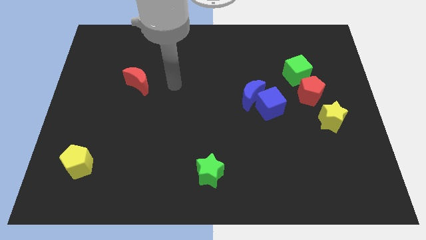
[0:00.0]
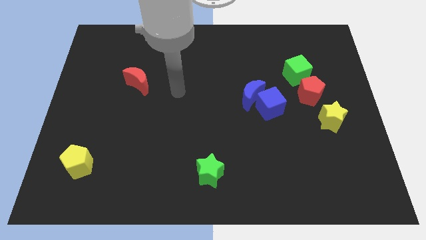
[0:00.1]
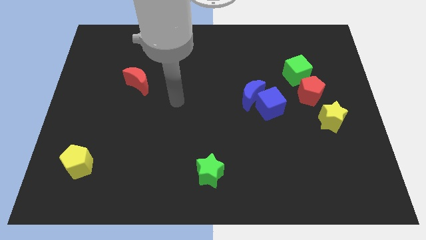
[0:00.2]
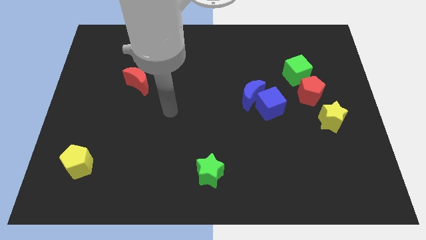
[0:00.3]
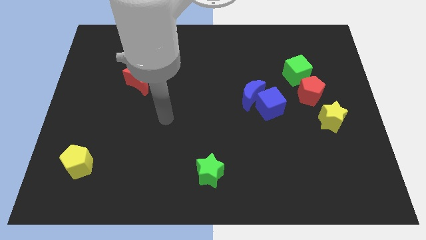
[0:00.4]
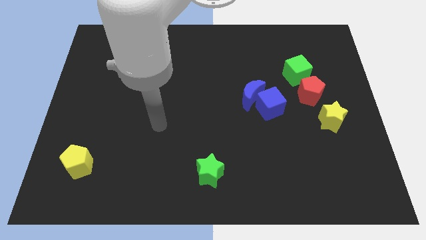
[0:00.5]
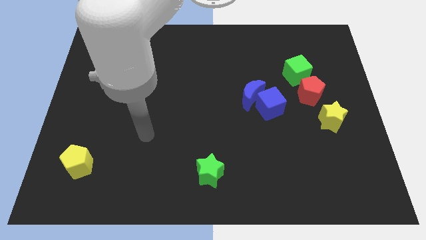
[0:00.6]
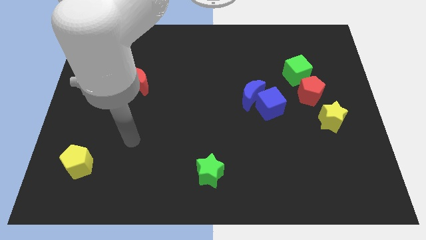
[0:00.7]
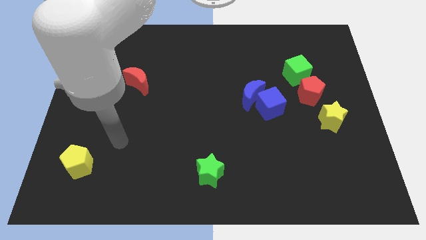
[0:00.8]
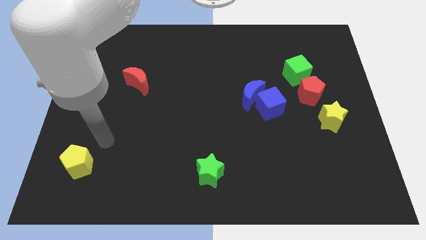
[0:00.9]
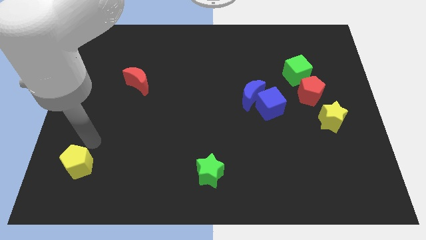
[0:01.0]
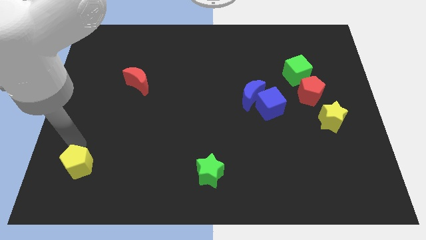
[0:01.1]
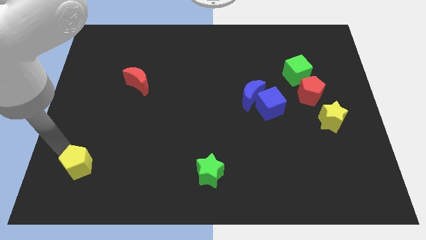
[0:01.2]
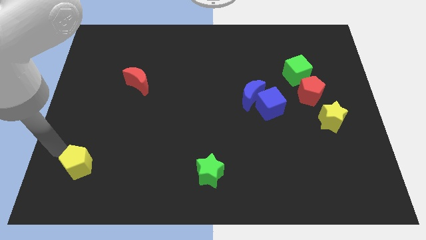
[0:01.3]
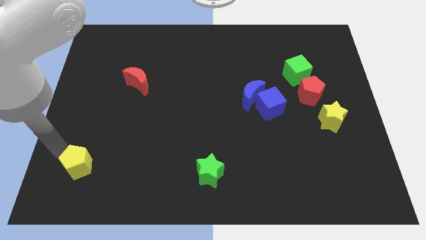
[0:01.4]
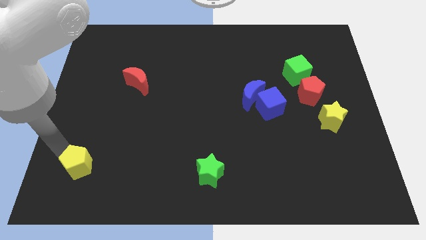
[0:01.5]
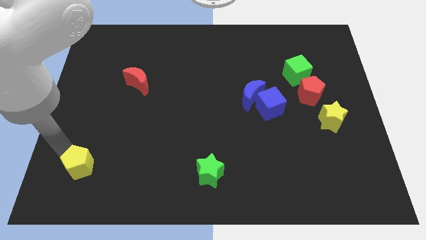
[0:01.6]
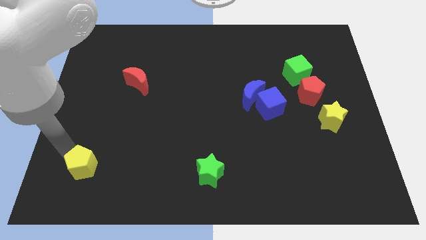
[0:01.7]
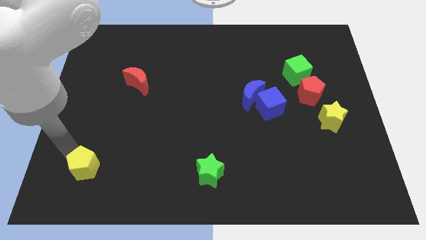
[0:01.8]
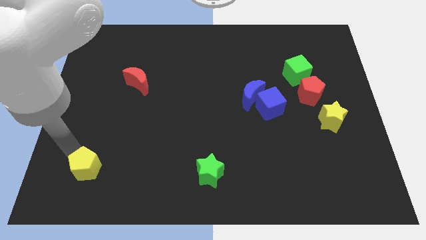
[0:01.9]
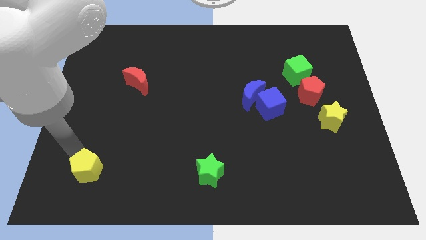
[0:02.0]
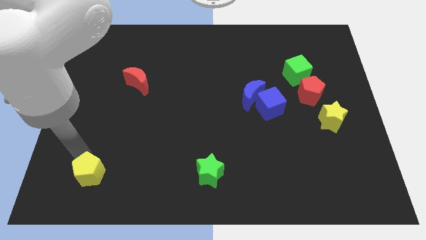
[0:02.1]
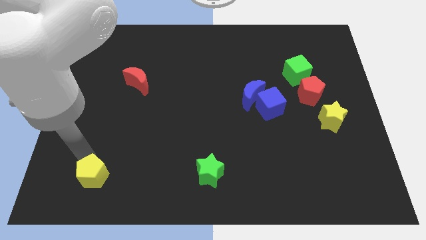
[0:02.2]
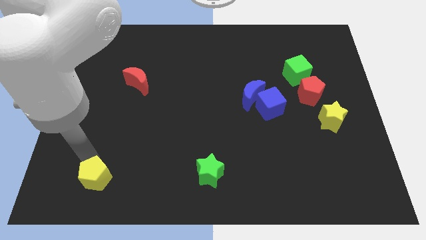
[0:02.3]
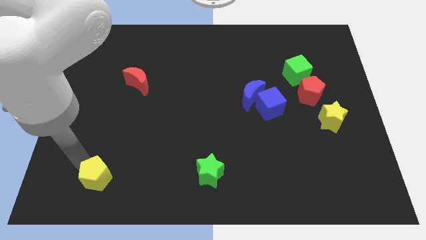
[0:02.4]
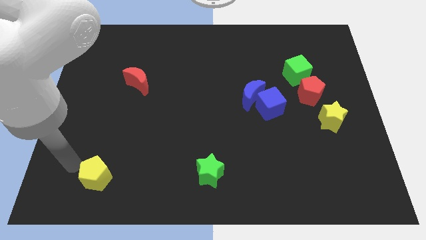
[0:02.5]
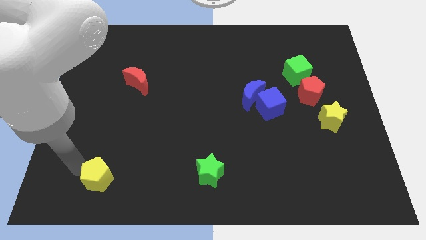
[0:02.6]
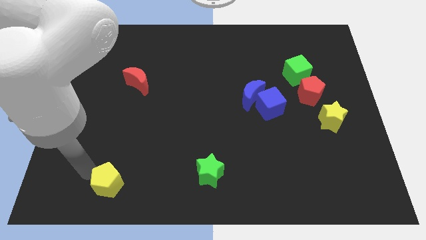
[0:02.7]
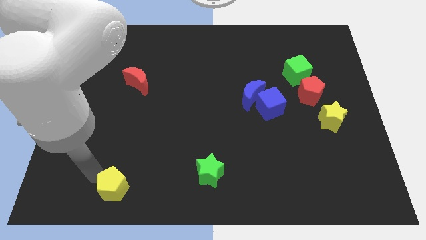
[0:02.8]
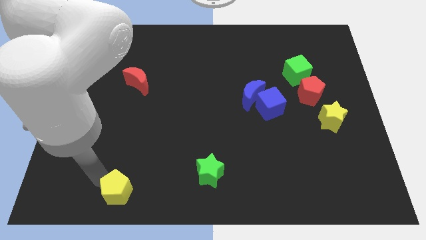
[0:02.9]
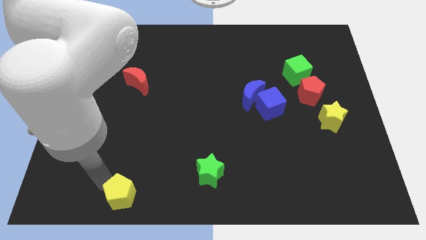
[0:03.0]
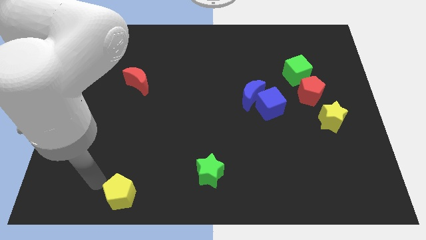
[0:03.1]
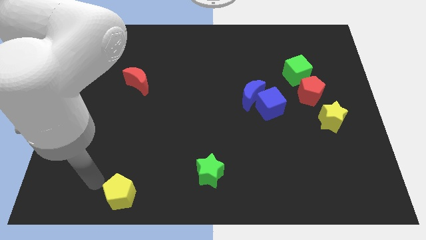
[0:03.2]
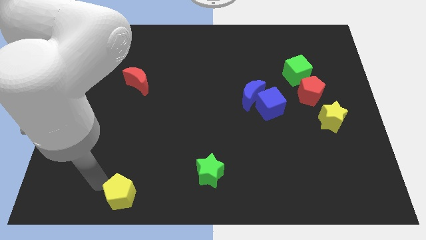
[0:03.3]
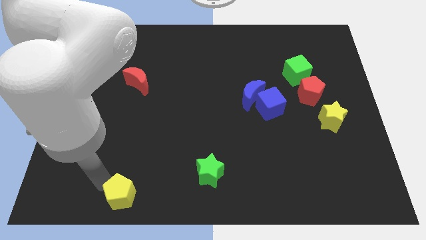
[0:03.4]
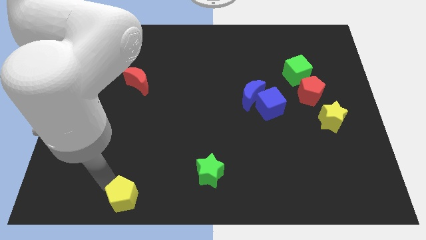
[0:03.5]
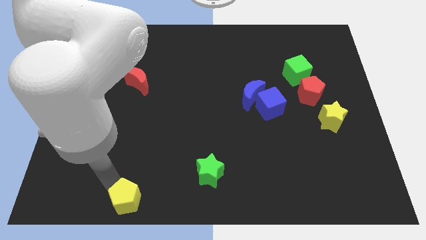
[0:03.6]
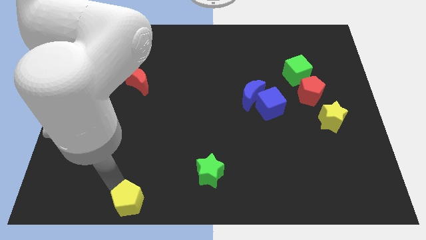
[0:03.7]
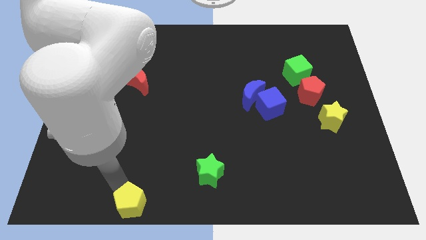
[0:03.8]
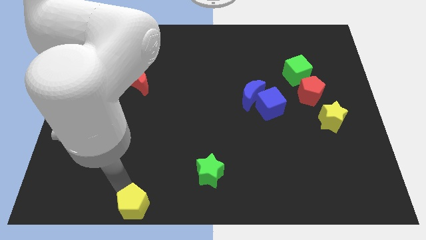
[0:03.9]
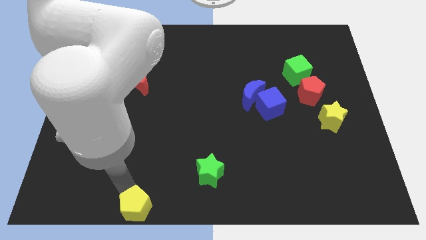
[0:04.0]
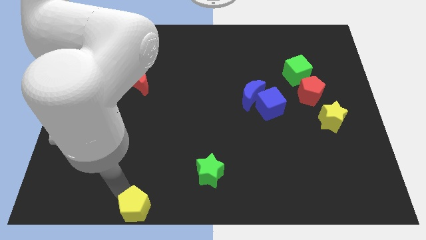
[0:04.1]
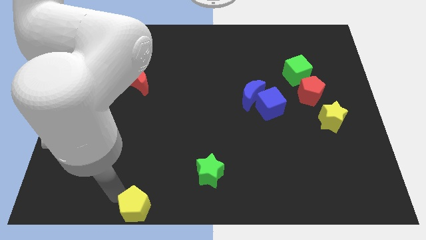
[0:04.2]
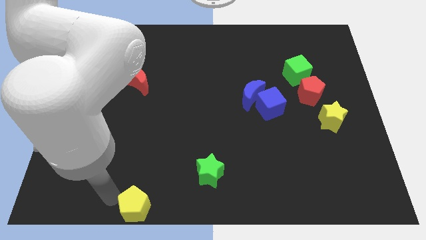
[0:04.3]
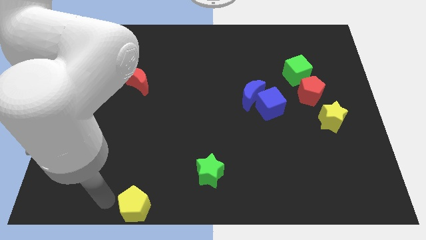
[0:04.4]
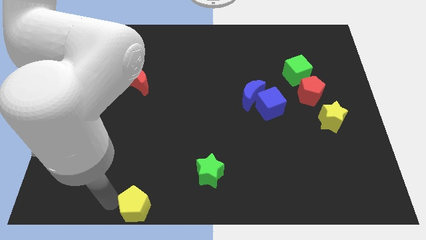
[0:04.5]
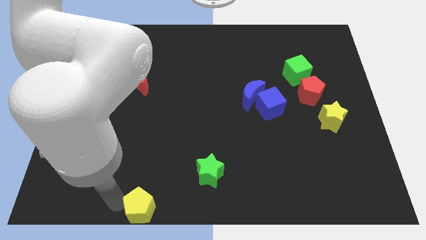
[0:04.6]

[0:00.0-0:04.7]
push the yellow pentagon to the bottom side

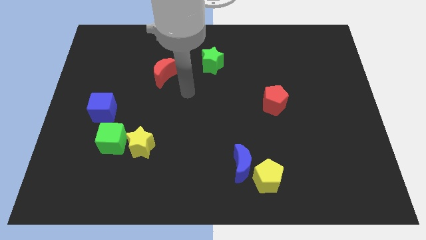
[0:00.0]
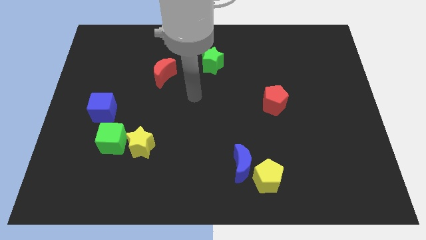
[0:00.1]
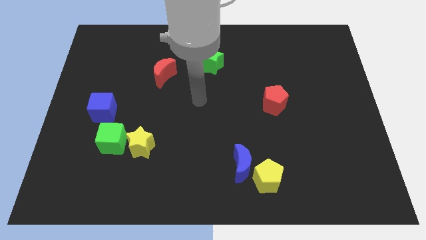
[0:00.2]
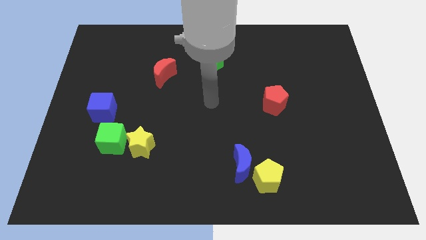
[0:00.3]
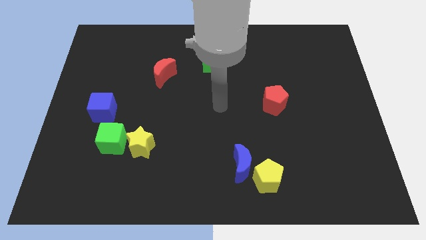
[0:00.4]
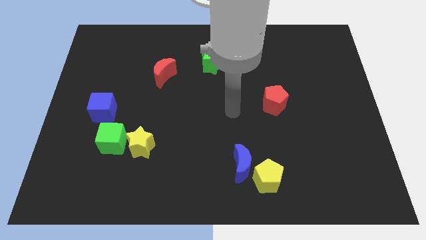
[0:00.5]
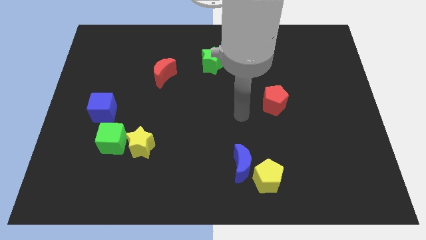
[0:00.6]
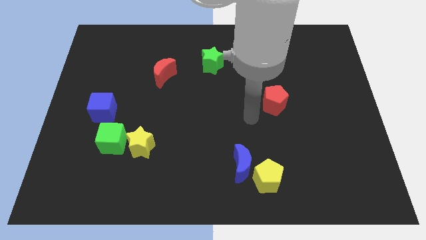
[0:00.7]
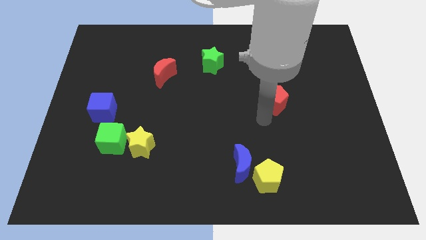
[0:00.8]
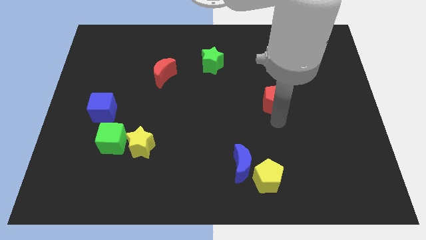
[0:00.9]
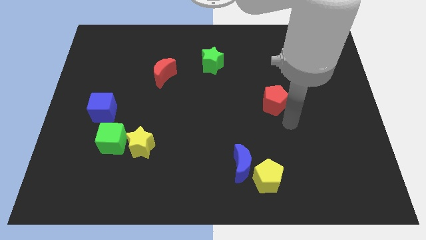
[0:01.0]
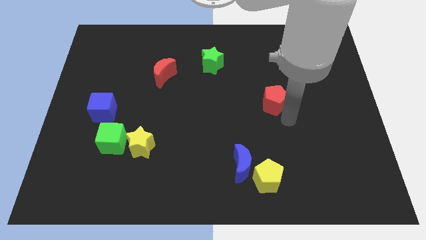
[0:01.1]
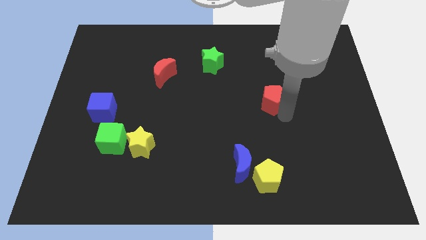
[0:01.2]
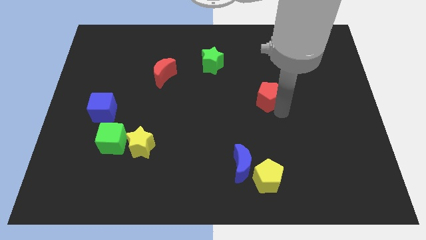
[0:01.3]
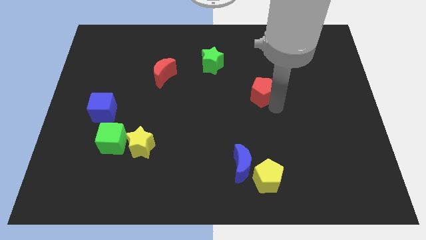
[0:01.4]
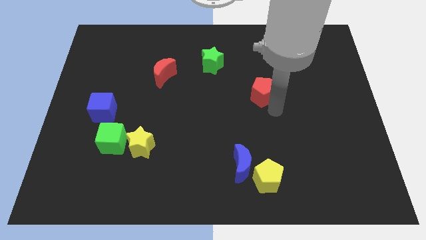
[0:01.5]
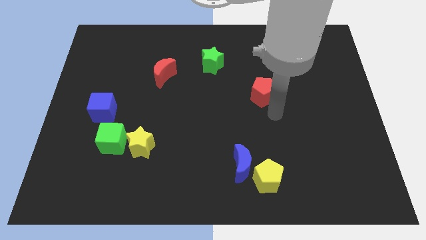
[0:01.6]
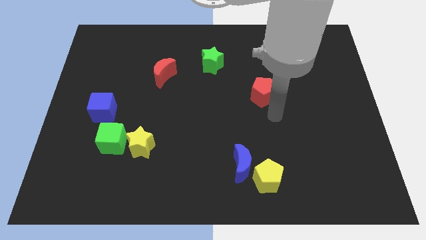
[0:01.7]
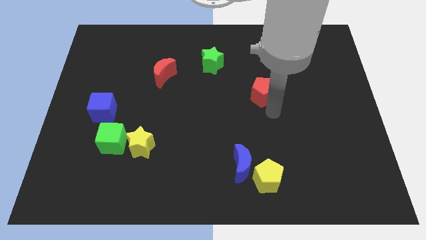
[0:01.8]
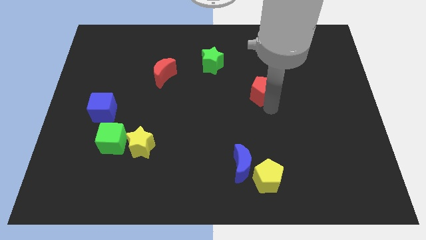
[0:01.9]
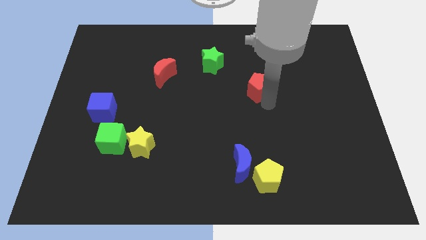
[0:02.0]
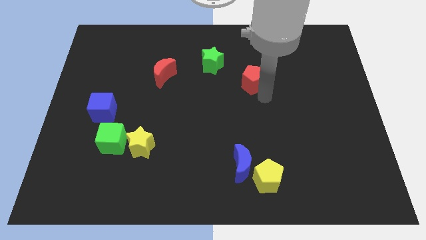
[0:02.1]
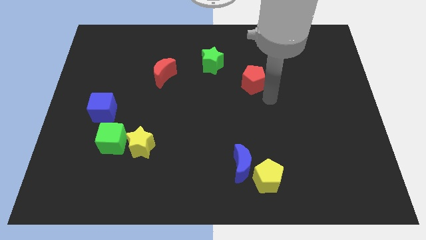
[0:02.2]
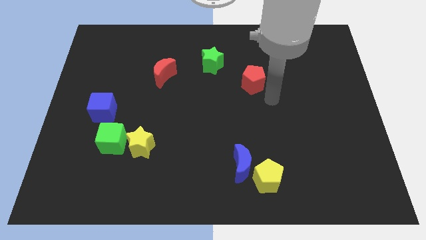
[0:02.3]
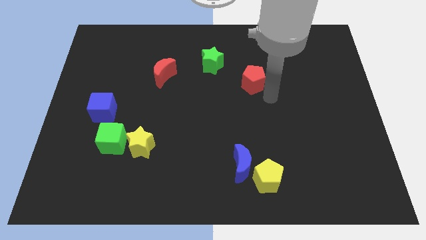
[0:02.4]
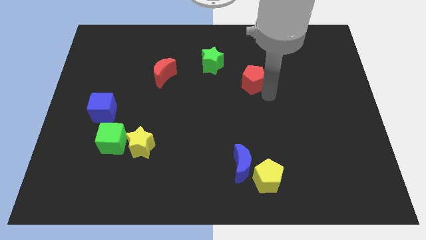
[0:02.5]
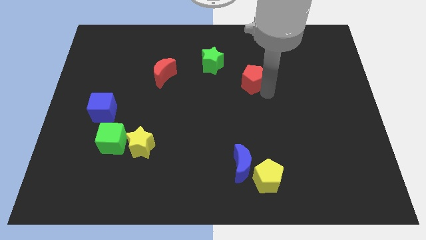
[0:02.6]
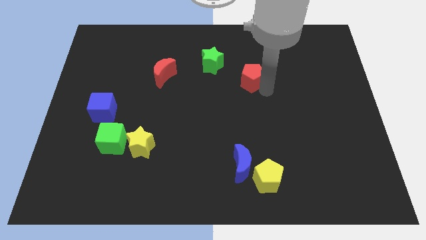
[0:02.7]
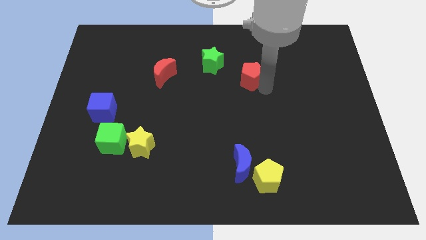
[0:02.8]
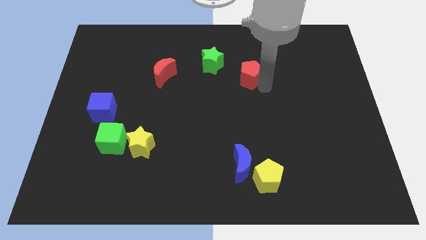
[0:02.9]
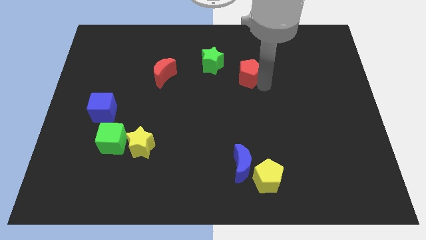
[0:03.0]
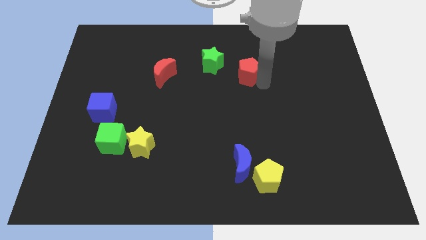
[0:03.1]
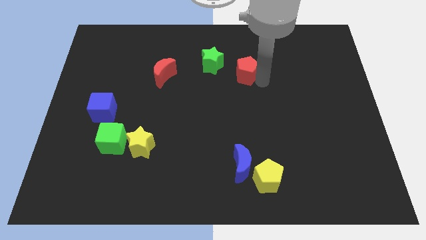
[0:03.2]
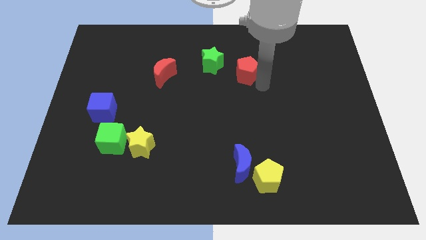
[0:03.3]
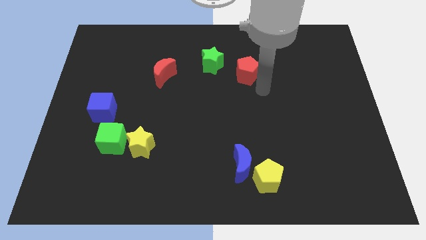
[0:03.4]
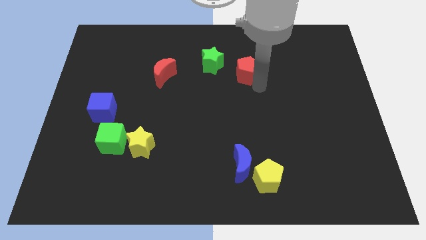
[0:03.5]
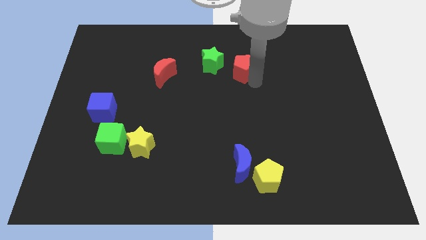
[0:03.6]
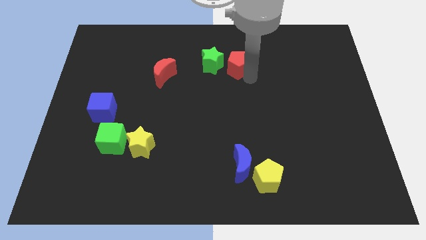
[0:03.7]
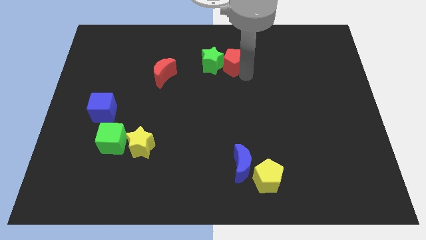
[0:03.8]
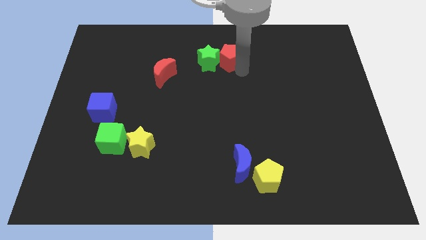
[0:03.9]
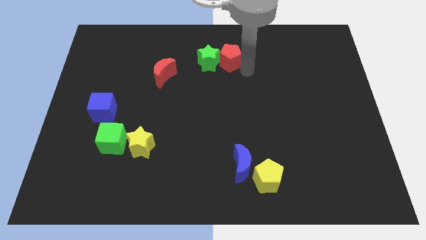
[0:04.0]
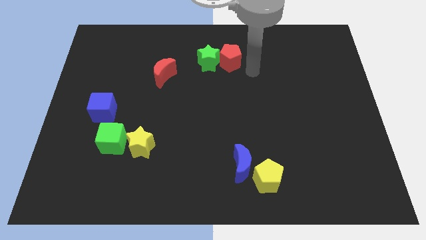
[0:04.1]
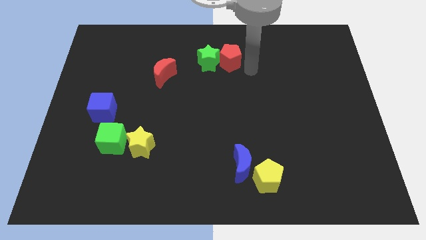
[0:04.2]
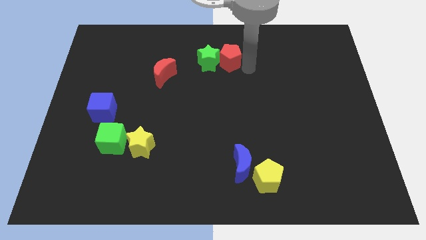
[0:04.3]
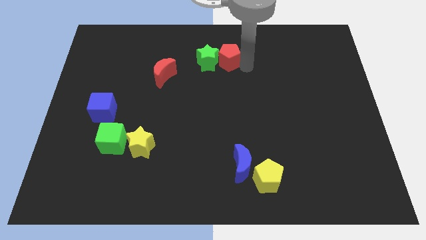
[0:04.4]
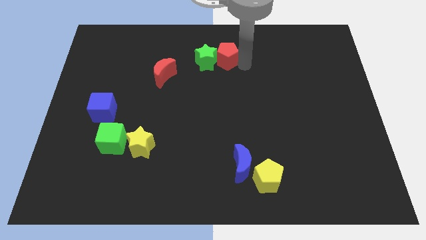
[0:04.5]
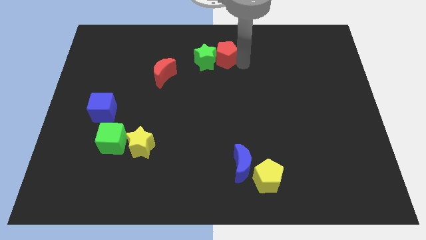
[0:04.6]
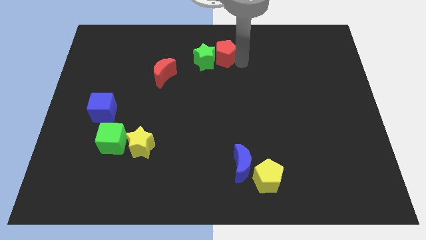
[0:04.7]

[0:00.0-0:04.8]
move the red pentagon to the top side
